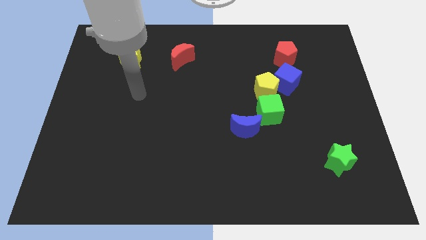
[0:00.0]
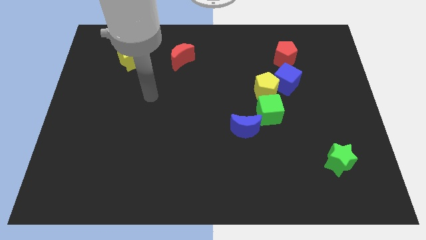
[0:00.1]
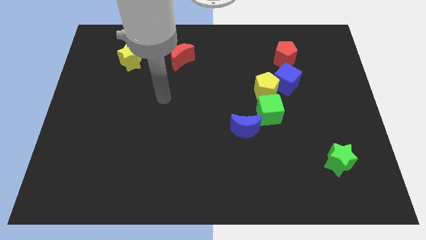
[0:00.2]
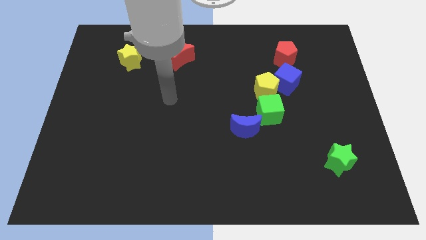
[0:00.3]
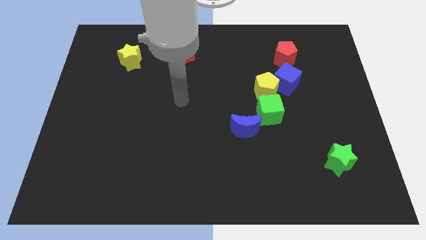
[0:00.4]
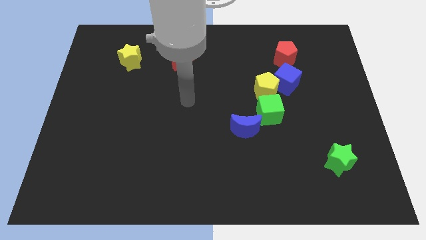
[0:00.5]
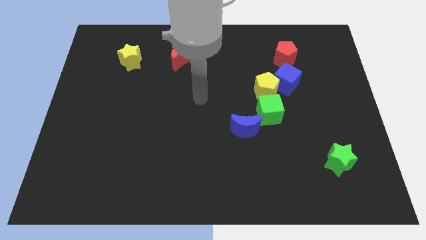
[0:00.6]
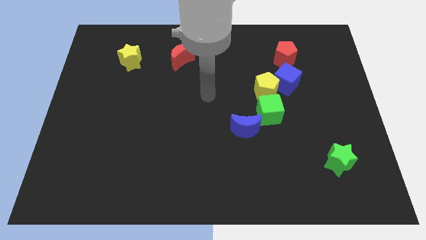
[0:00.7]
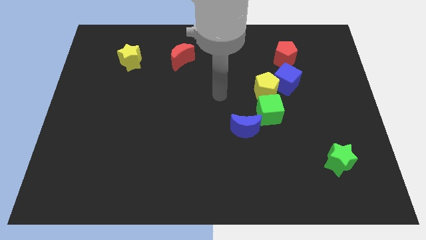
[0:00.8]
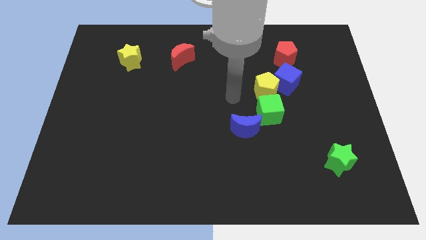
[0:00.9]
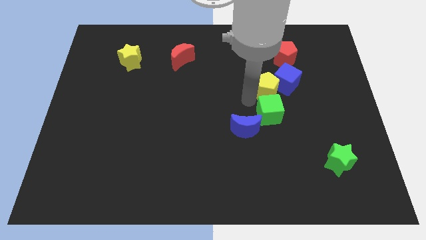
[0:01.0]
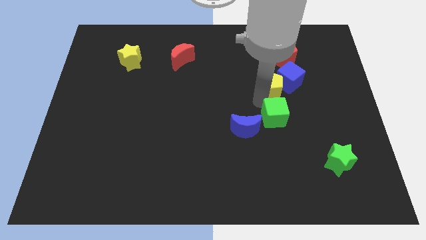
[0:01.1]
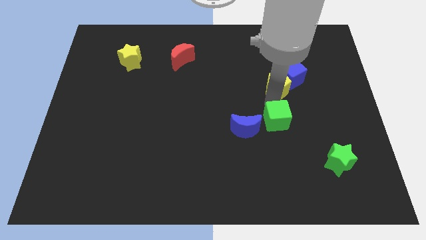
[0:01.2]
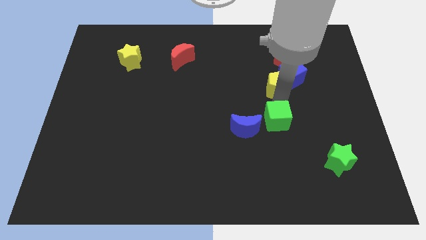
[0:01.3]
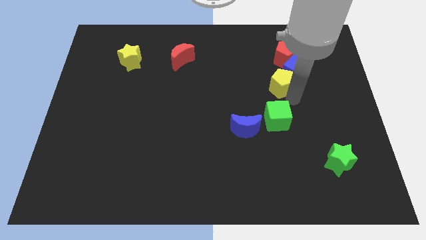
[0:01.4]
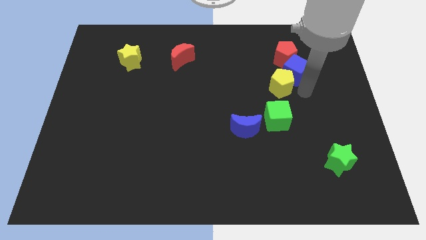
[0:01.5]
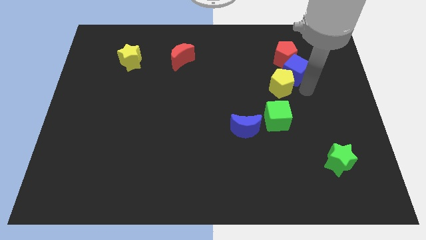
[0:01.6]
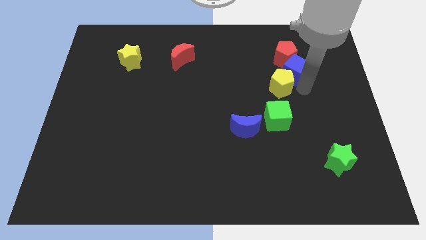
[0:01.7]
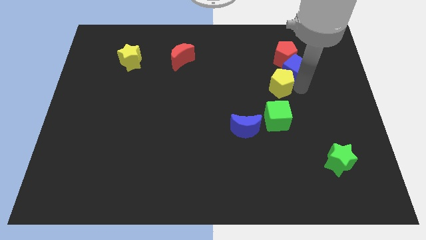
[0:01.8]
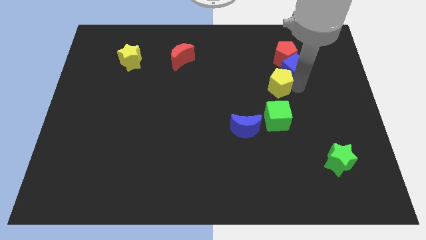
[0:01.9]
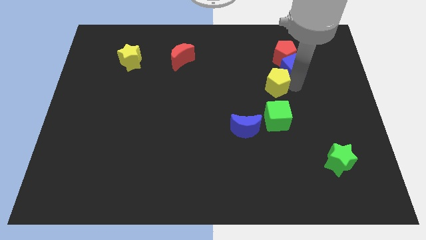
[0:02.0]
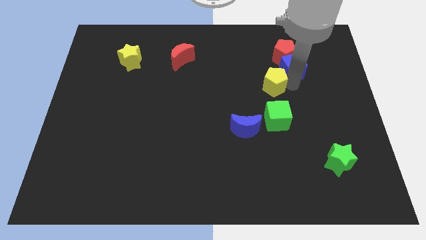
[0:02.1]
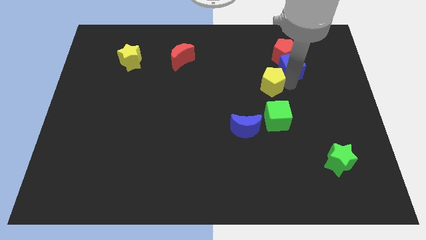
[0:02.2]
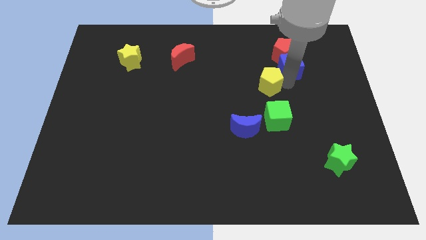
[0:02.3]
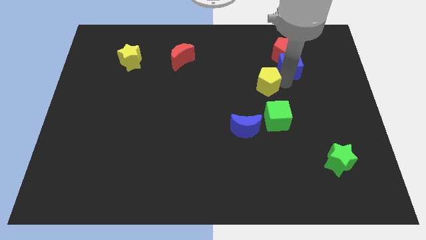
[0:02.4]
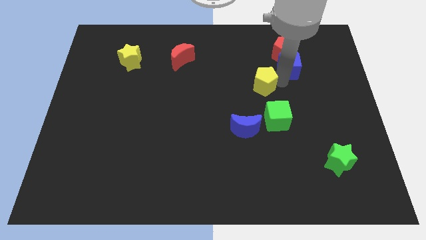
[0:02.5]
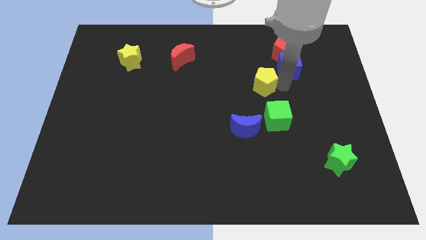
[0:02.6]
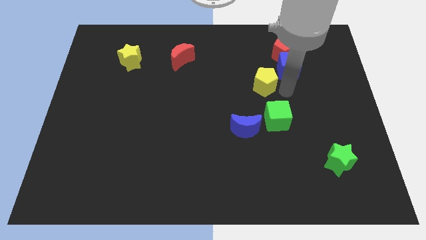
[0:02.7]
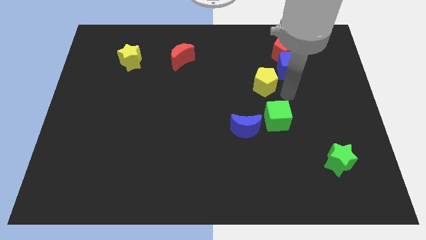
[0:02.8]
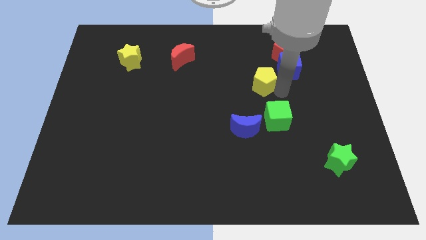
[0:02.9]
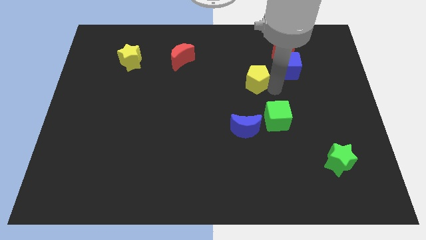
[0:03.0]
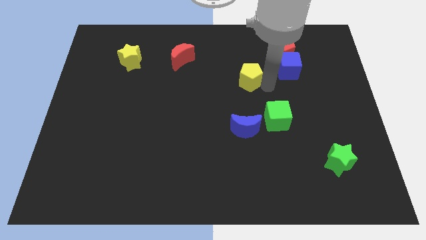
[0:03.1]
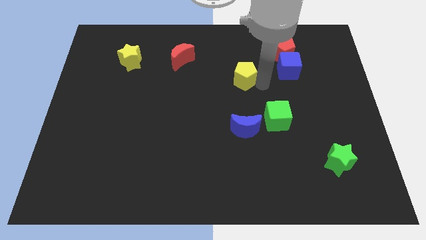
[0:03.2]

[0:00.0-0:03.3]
pull the yellow pentagon apart from the blue cube and green cube

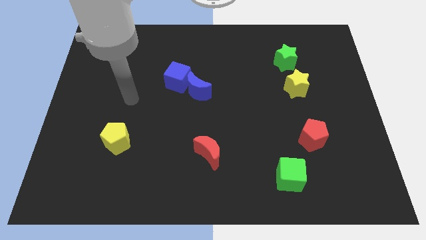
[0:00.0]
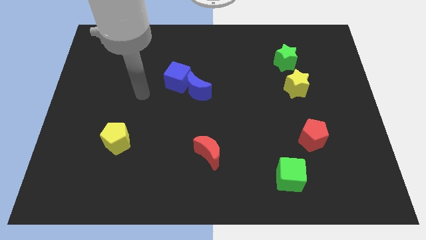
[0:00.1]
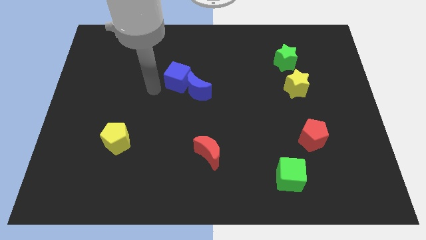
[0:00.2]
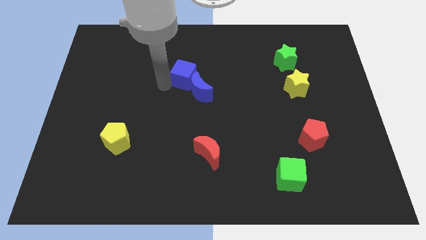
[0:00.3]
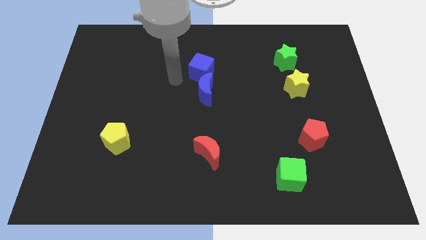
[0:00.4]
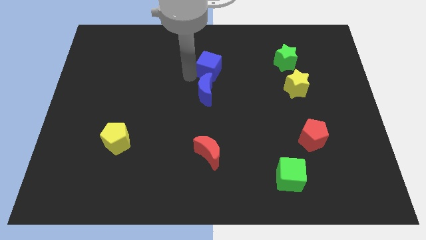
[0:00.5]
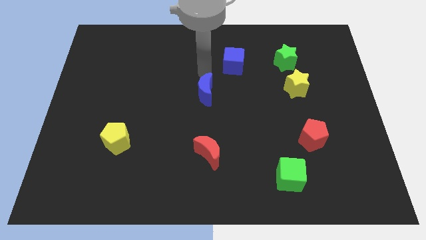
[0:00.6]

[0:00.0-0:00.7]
pull the blue moon apart from the blue cube

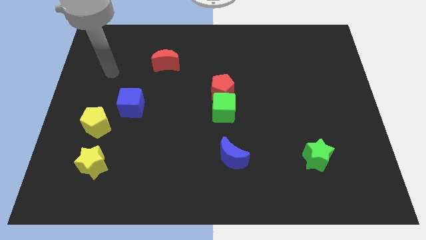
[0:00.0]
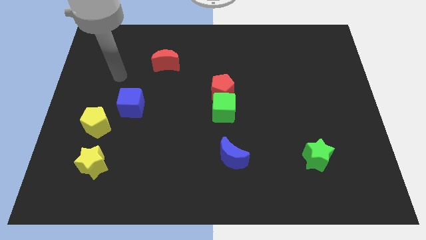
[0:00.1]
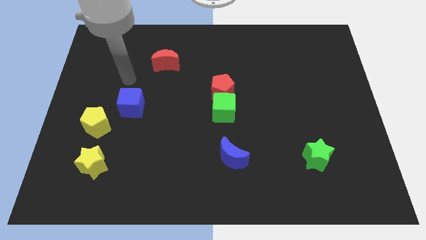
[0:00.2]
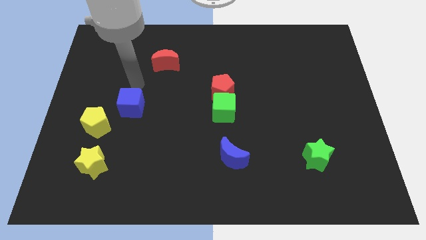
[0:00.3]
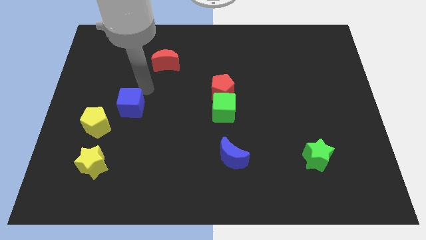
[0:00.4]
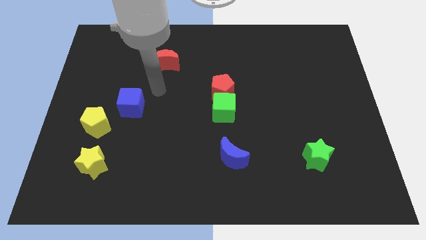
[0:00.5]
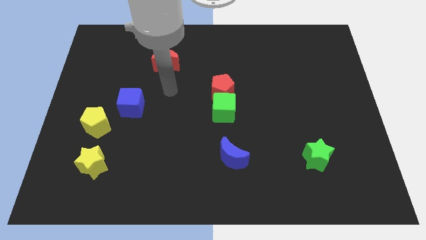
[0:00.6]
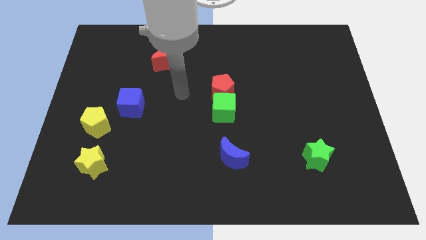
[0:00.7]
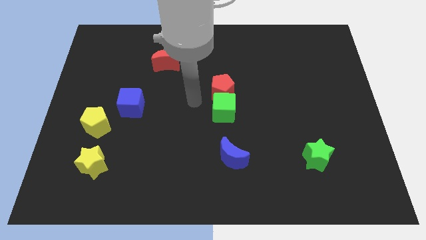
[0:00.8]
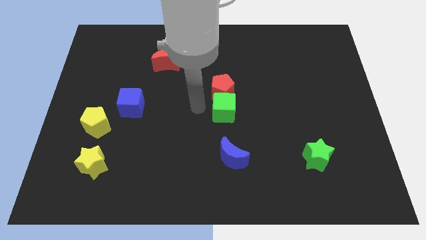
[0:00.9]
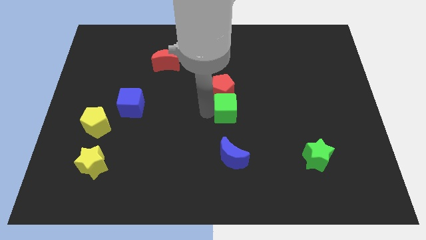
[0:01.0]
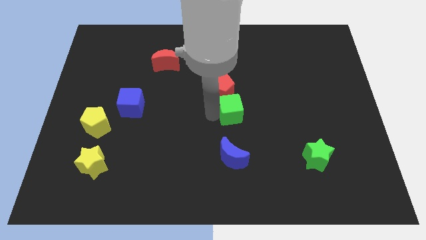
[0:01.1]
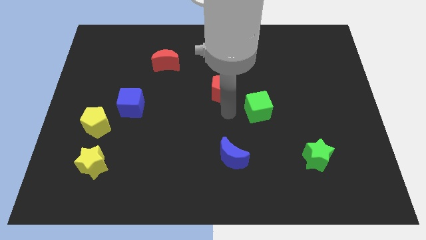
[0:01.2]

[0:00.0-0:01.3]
separate the red pentagon from the green cube

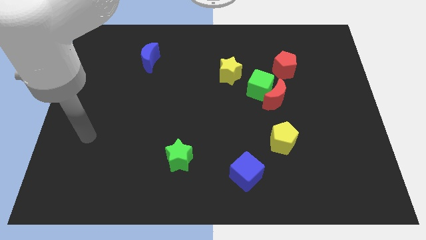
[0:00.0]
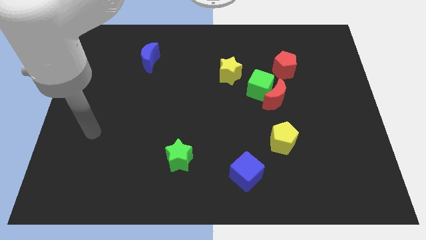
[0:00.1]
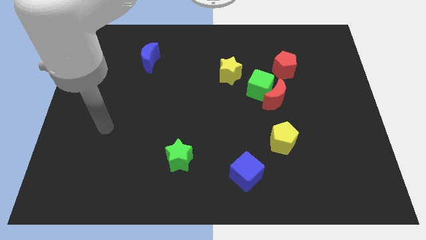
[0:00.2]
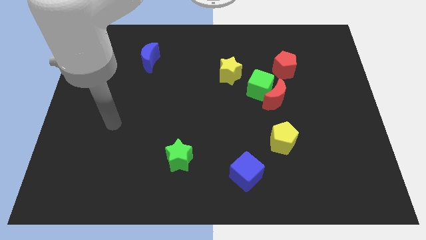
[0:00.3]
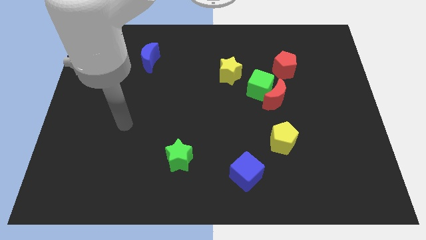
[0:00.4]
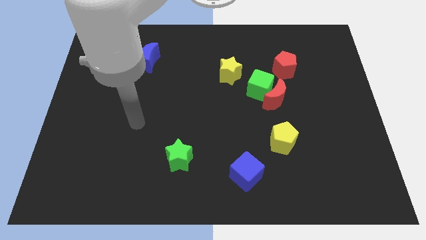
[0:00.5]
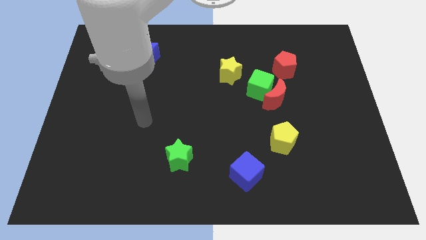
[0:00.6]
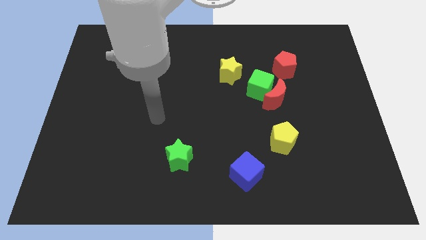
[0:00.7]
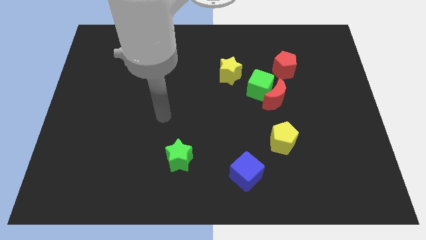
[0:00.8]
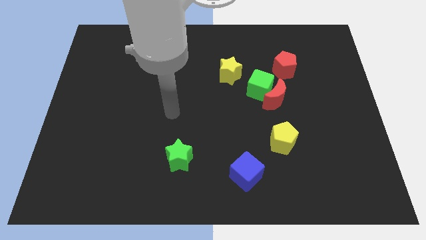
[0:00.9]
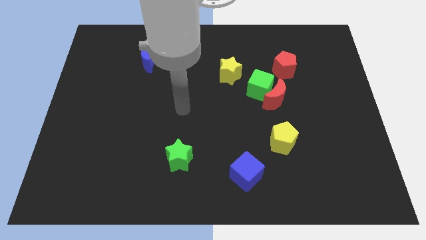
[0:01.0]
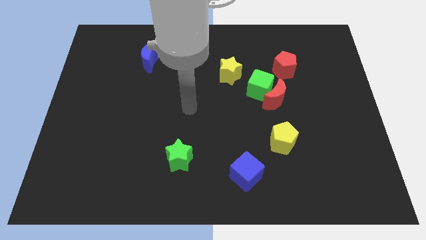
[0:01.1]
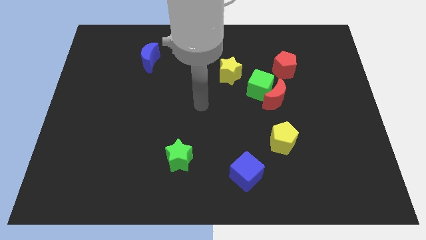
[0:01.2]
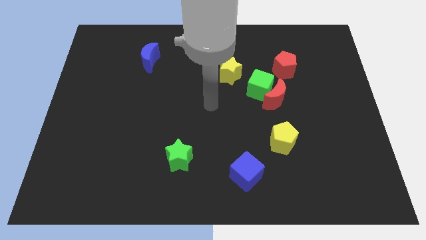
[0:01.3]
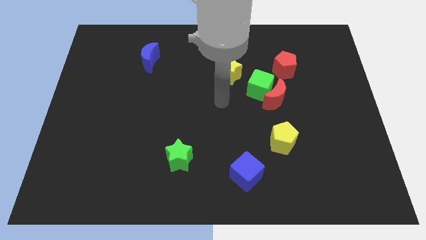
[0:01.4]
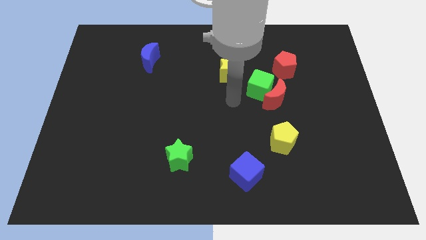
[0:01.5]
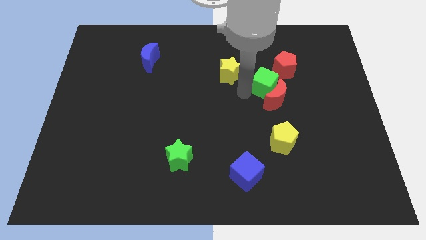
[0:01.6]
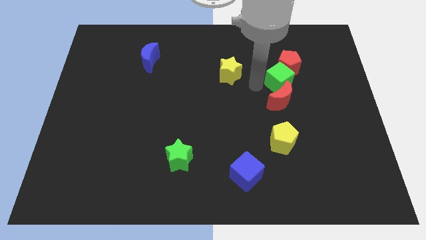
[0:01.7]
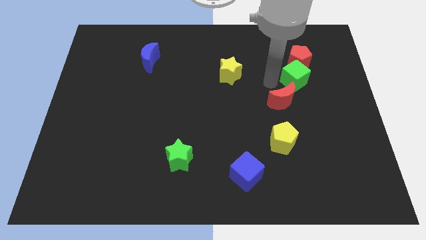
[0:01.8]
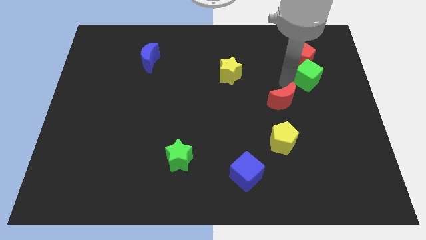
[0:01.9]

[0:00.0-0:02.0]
pull the red moon apart from the green cube

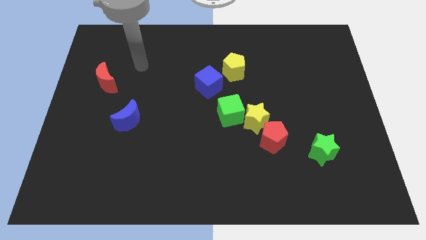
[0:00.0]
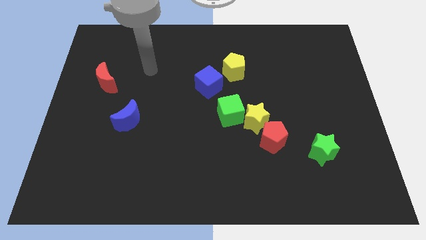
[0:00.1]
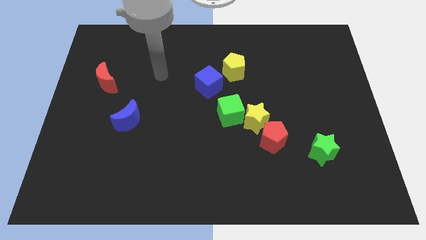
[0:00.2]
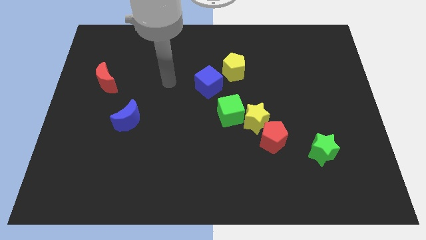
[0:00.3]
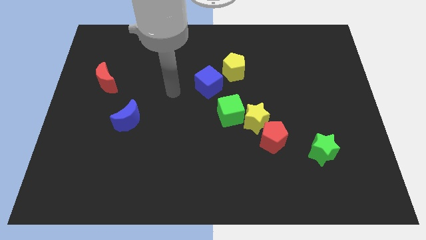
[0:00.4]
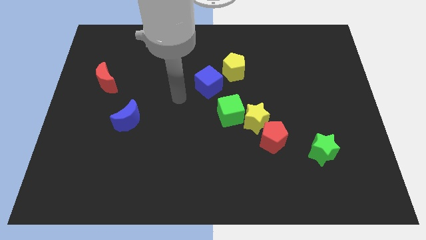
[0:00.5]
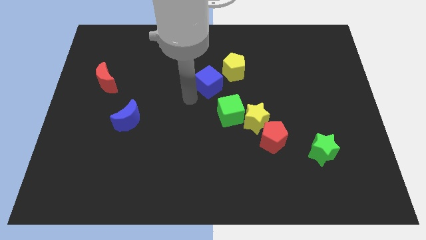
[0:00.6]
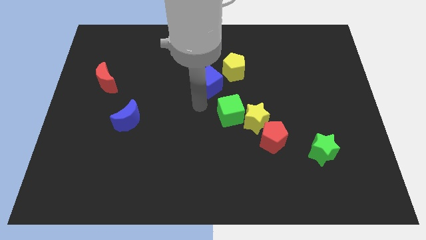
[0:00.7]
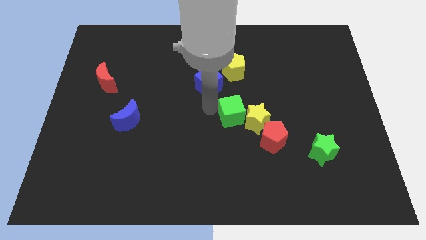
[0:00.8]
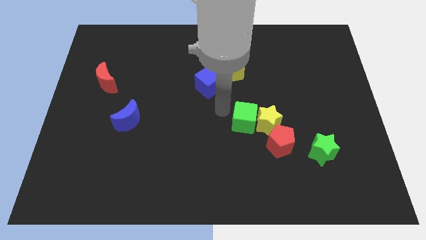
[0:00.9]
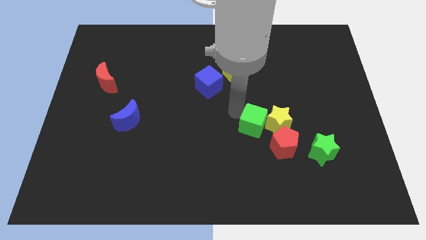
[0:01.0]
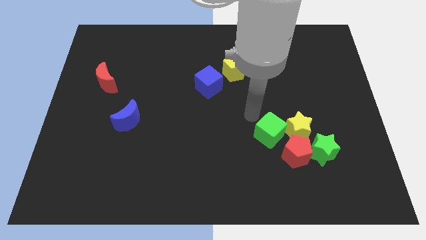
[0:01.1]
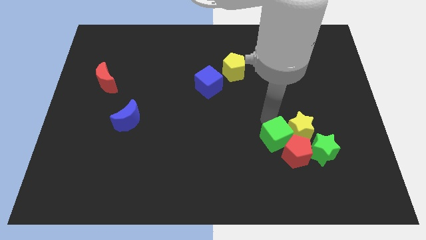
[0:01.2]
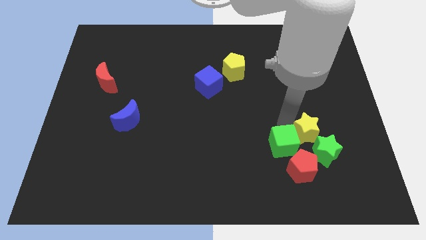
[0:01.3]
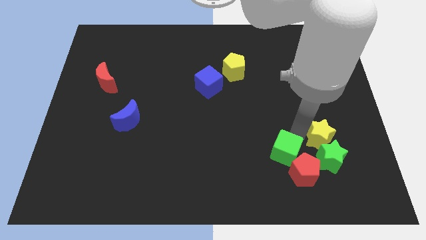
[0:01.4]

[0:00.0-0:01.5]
move the red pentagon away from the yellow star

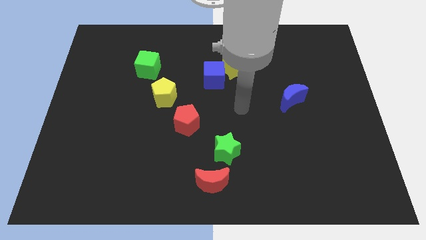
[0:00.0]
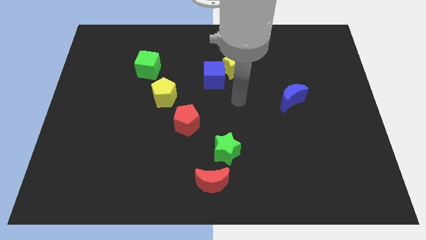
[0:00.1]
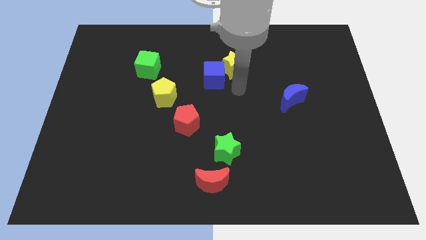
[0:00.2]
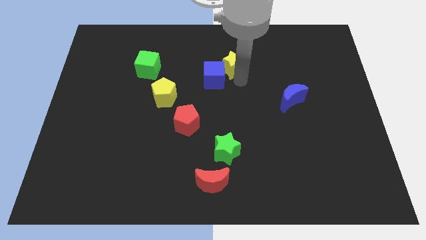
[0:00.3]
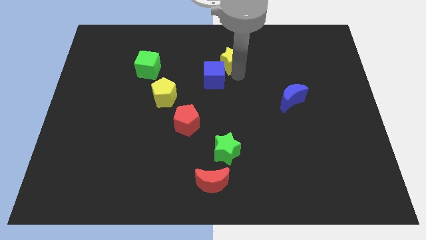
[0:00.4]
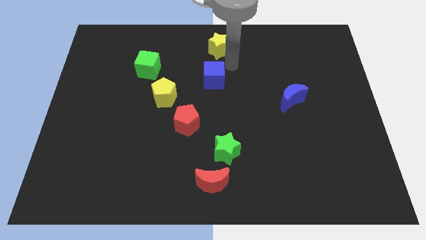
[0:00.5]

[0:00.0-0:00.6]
pull the blue cube apart from the yellow star
